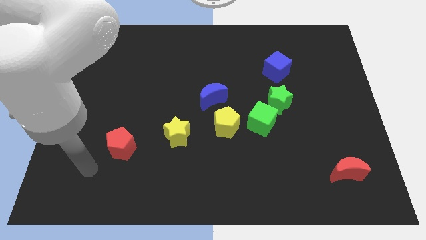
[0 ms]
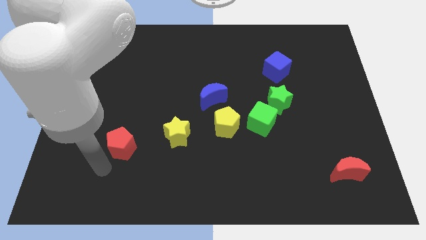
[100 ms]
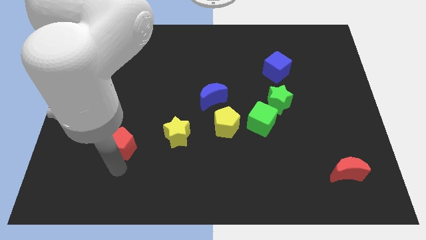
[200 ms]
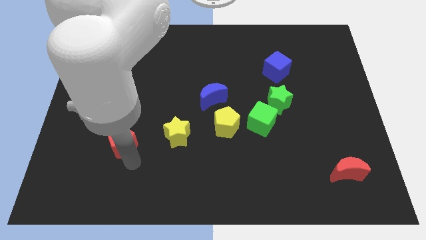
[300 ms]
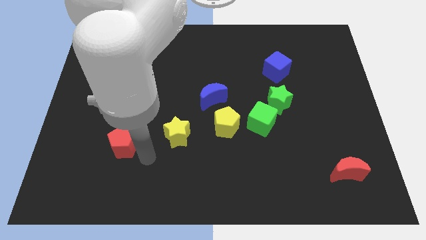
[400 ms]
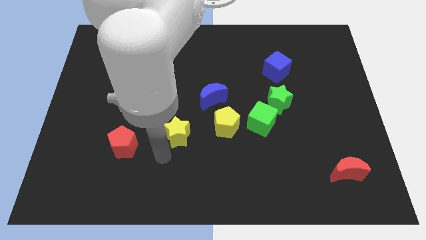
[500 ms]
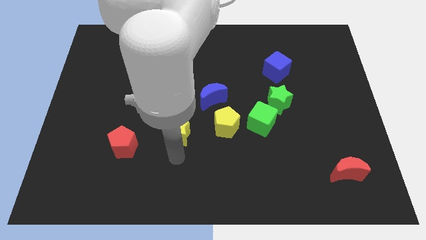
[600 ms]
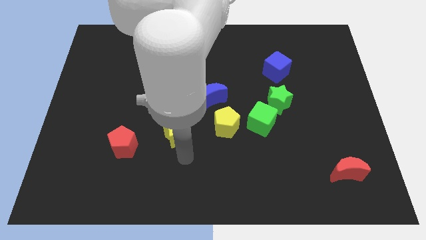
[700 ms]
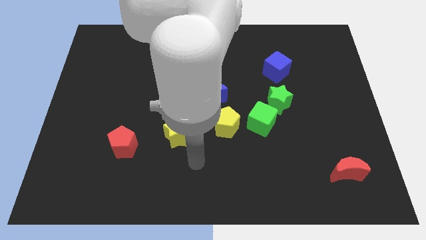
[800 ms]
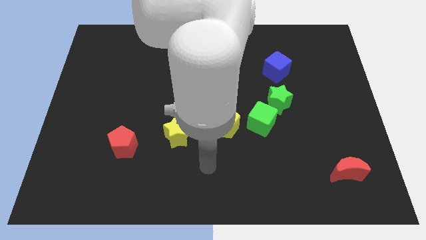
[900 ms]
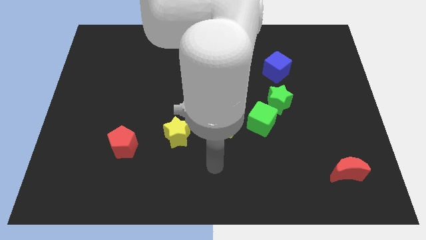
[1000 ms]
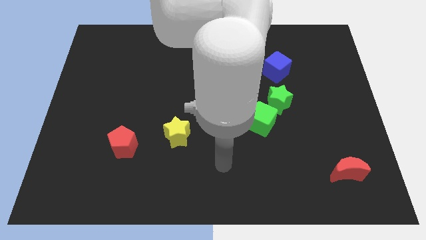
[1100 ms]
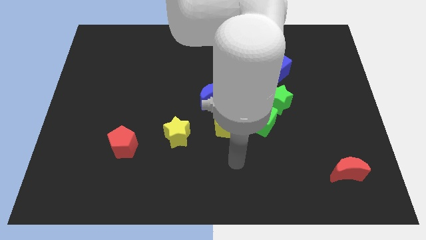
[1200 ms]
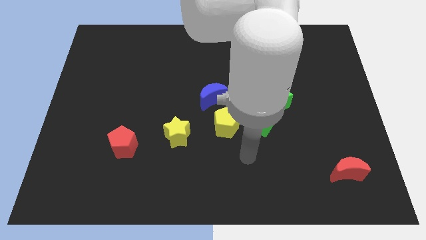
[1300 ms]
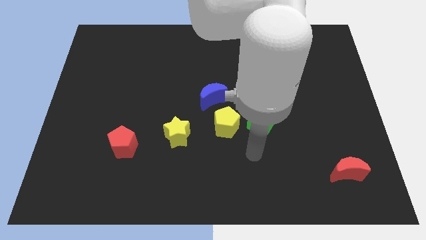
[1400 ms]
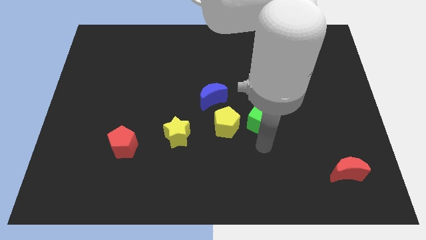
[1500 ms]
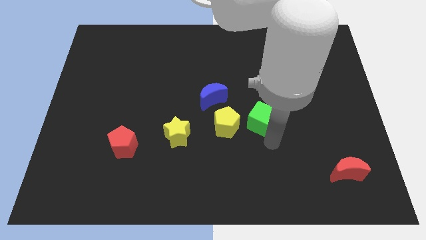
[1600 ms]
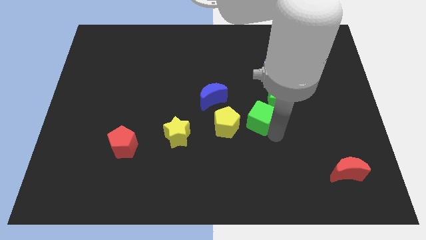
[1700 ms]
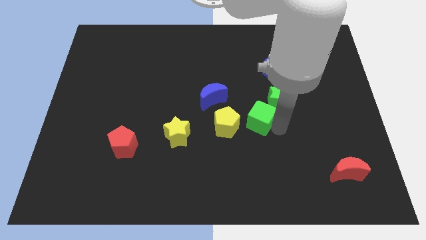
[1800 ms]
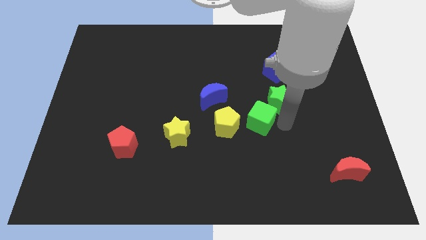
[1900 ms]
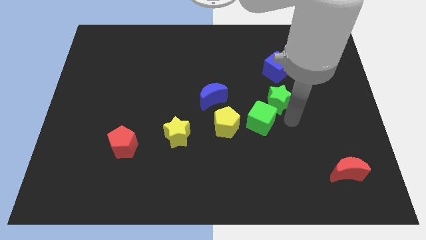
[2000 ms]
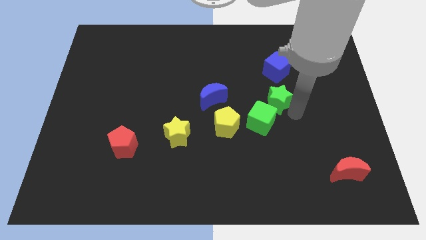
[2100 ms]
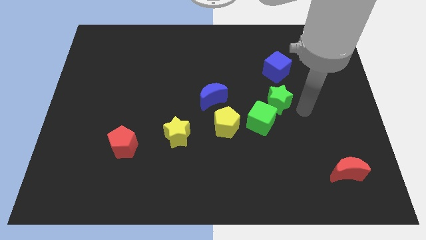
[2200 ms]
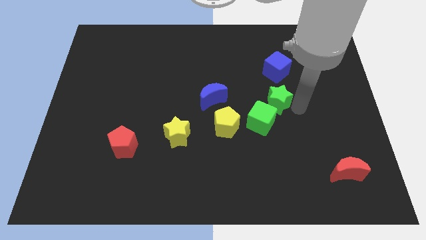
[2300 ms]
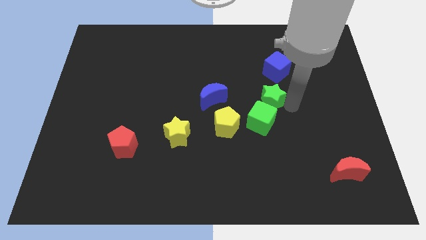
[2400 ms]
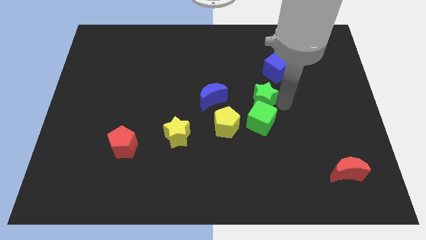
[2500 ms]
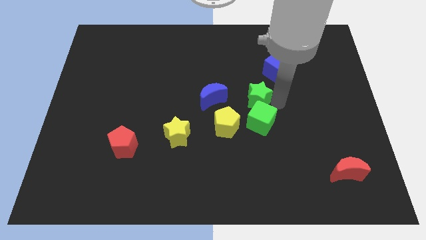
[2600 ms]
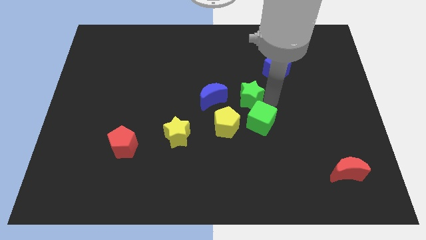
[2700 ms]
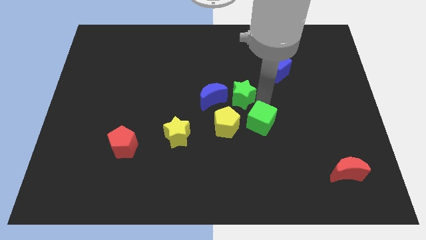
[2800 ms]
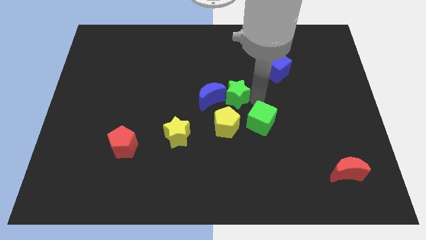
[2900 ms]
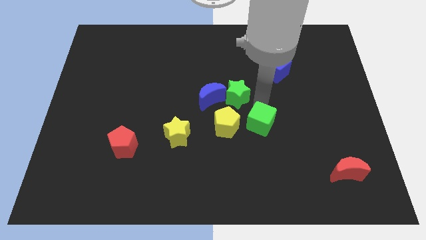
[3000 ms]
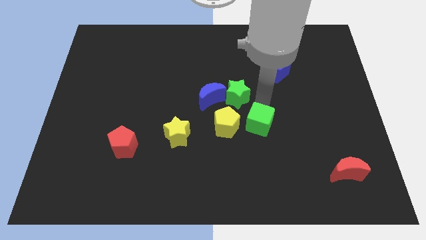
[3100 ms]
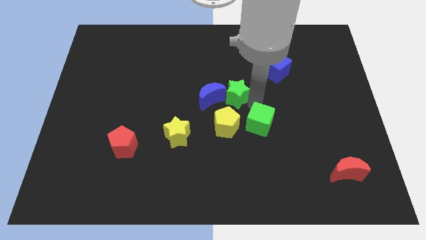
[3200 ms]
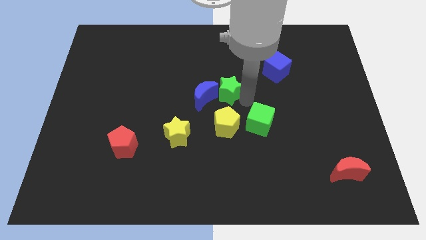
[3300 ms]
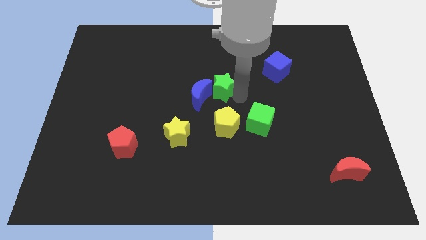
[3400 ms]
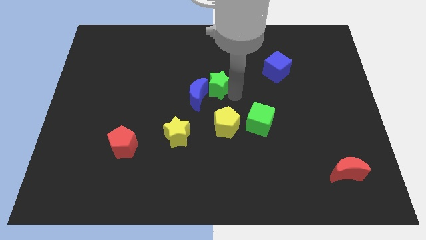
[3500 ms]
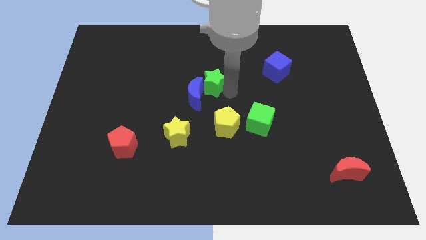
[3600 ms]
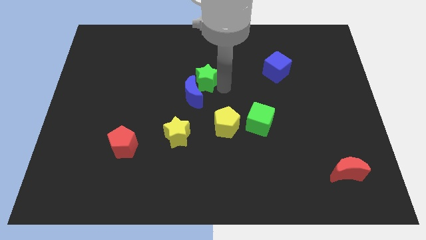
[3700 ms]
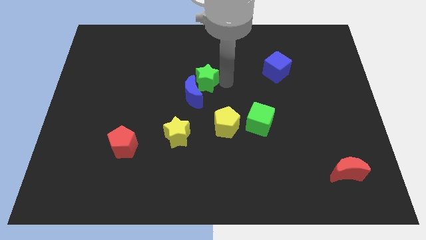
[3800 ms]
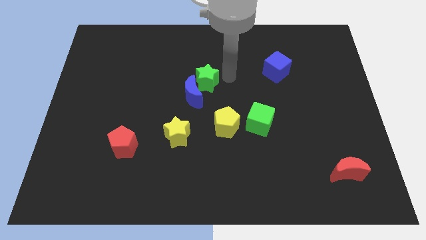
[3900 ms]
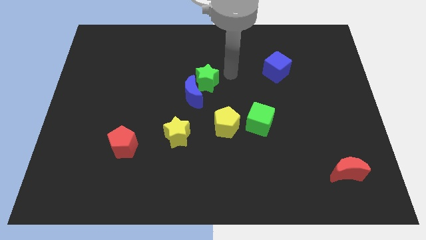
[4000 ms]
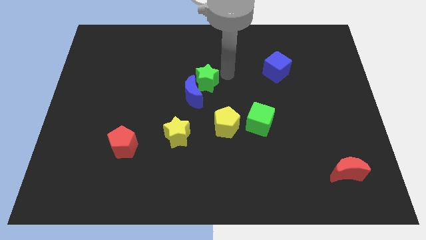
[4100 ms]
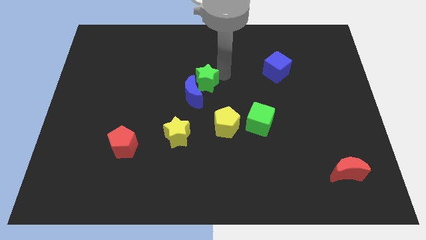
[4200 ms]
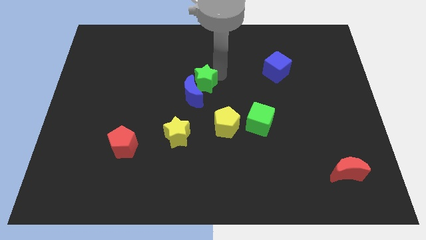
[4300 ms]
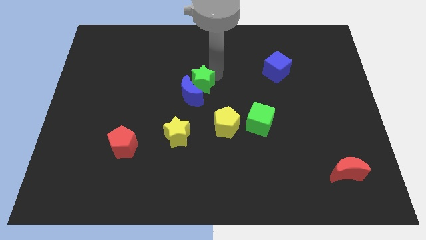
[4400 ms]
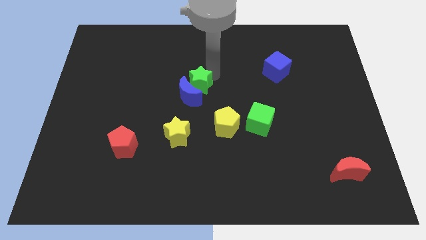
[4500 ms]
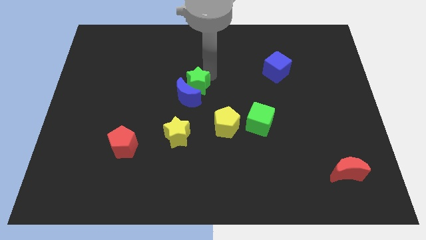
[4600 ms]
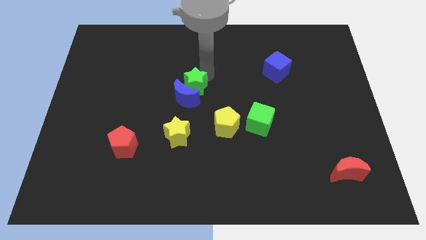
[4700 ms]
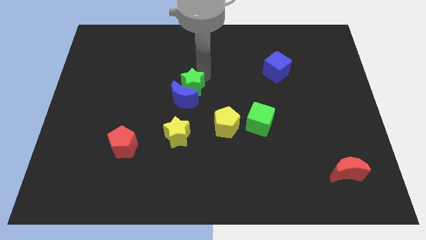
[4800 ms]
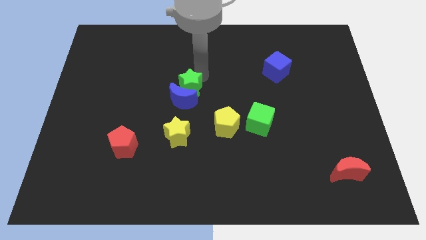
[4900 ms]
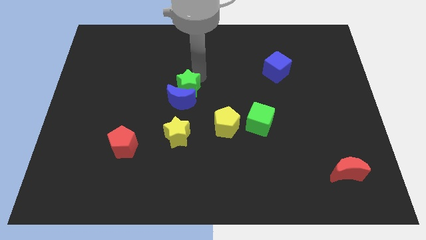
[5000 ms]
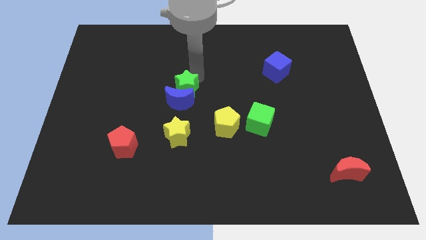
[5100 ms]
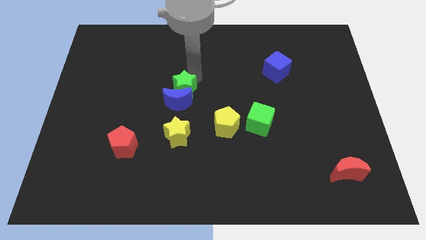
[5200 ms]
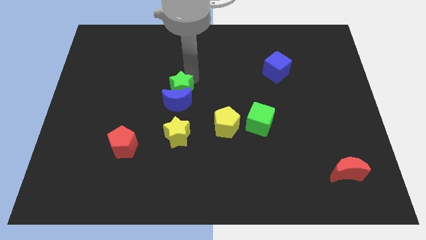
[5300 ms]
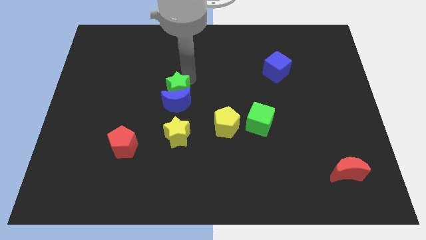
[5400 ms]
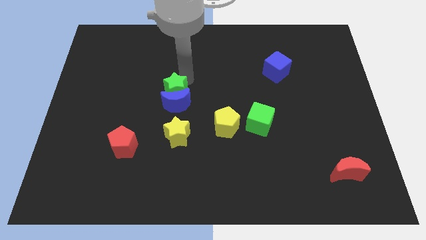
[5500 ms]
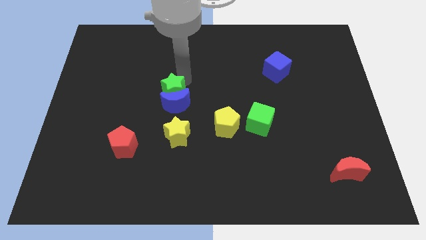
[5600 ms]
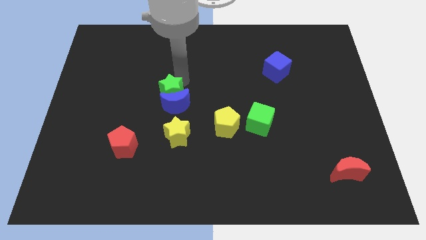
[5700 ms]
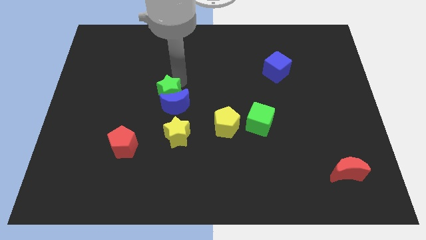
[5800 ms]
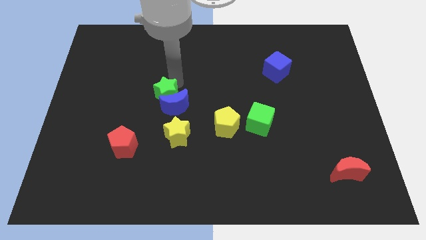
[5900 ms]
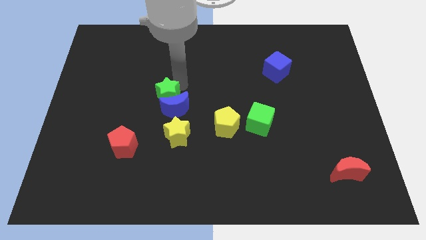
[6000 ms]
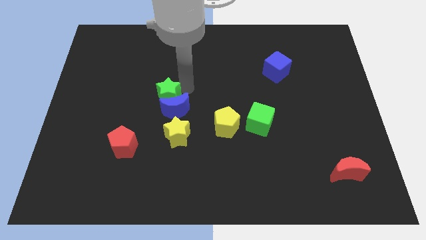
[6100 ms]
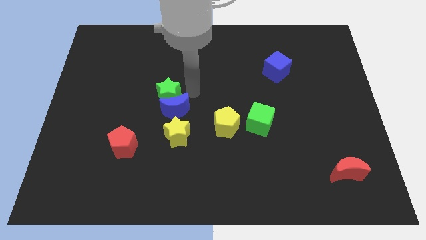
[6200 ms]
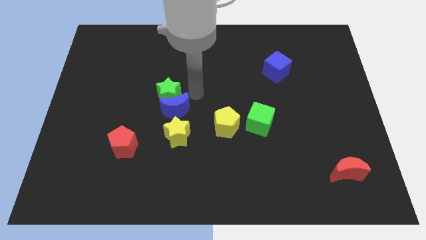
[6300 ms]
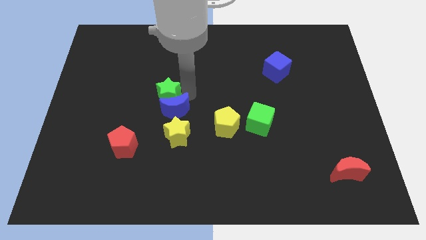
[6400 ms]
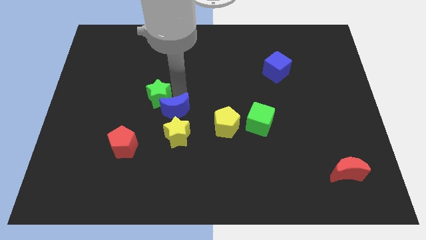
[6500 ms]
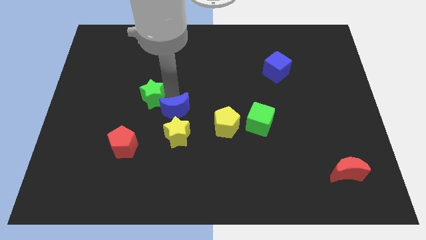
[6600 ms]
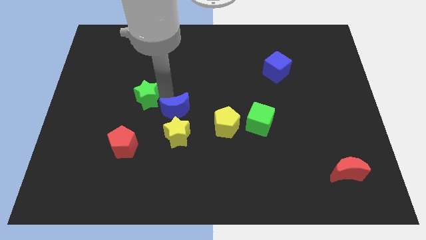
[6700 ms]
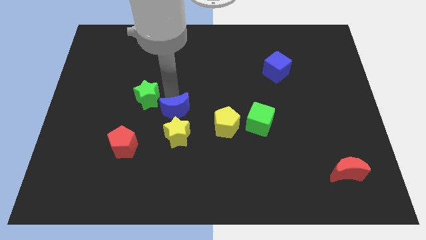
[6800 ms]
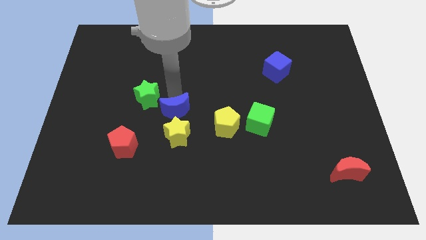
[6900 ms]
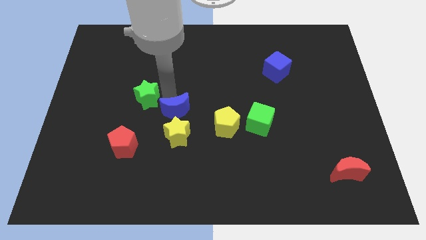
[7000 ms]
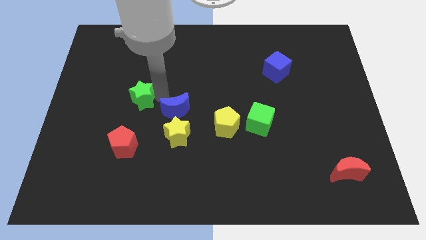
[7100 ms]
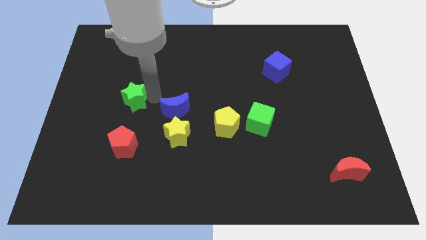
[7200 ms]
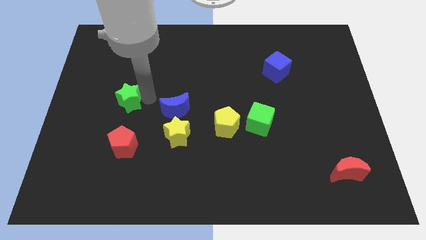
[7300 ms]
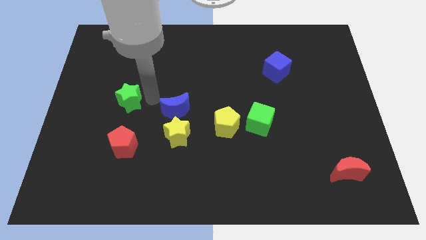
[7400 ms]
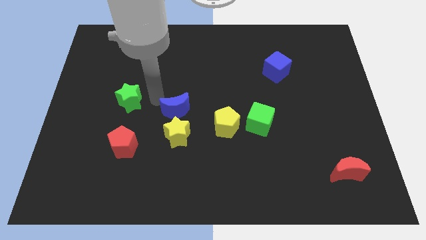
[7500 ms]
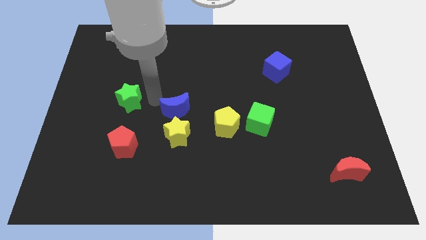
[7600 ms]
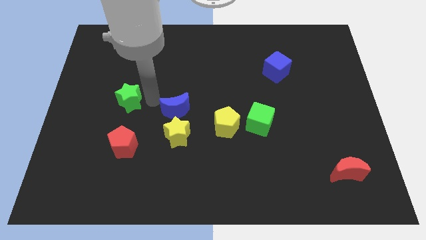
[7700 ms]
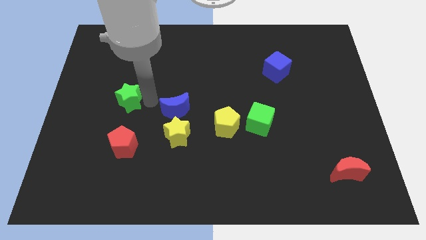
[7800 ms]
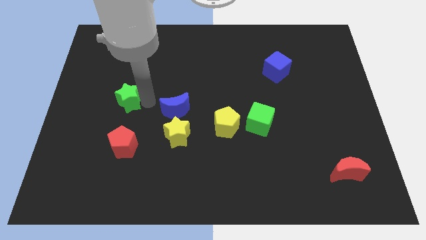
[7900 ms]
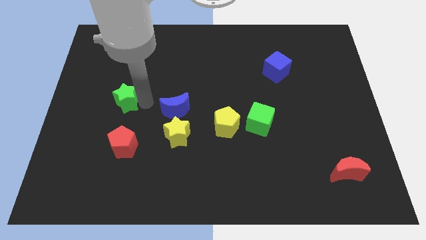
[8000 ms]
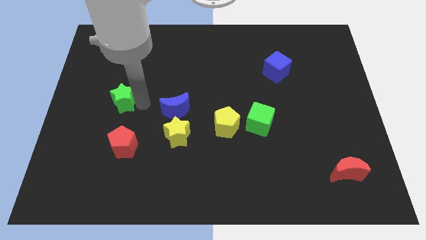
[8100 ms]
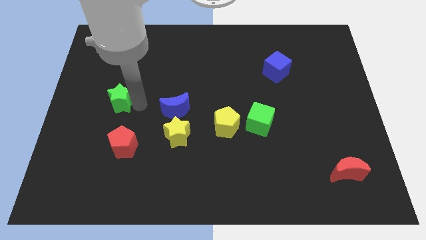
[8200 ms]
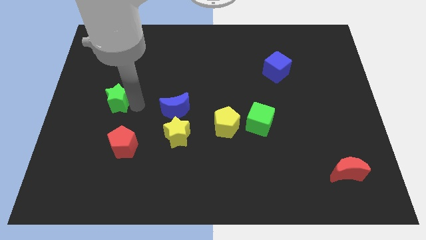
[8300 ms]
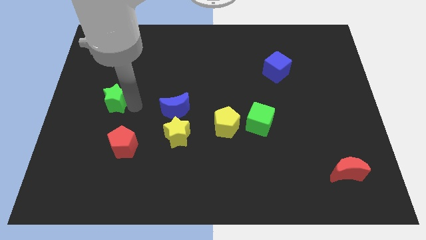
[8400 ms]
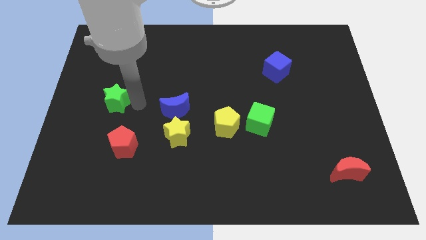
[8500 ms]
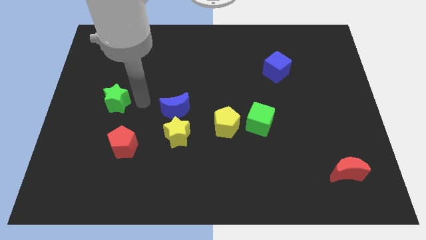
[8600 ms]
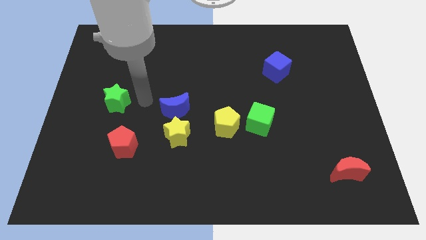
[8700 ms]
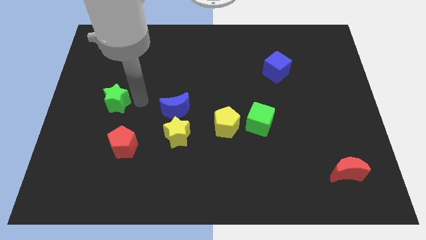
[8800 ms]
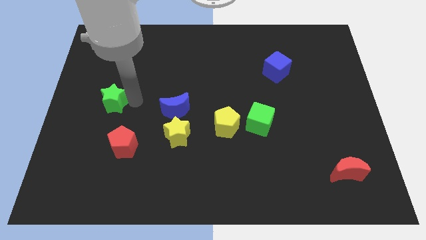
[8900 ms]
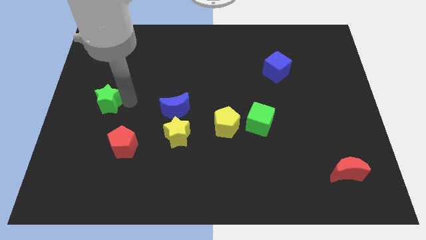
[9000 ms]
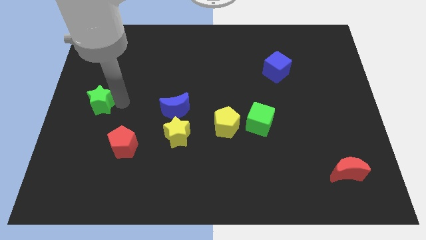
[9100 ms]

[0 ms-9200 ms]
push the green star to the center left
